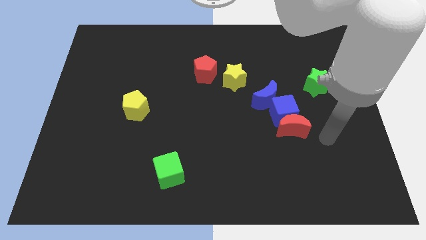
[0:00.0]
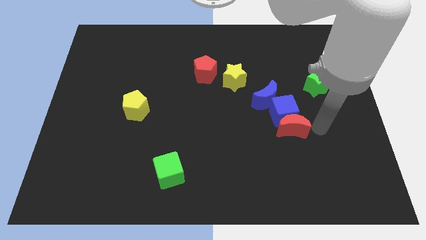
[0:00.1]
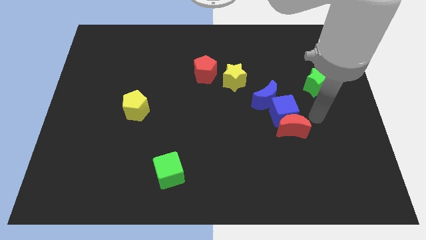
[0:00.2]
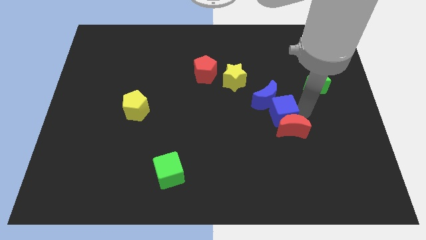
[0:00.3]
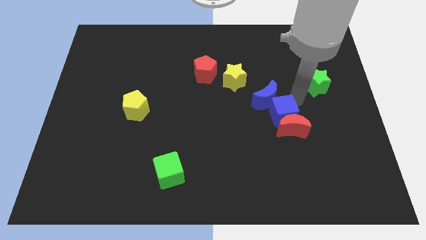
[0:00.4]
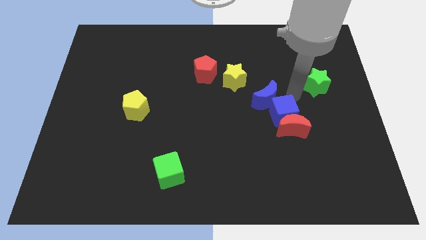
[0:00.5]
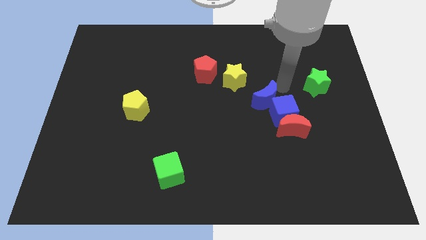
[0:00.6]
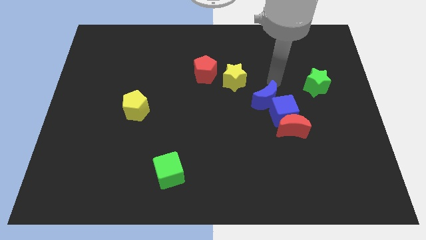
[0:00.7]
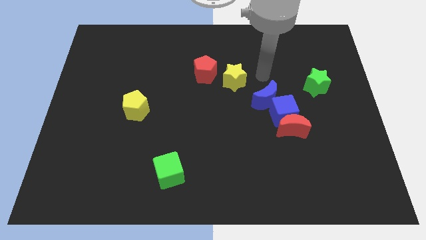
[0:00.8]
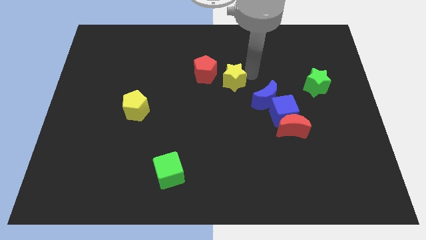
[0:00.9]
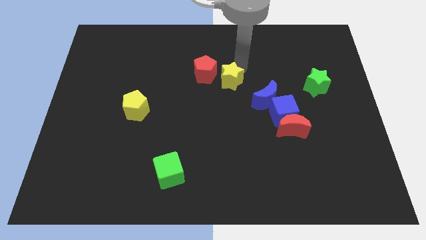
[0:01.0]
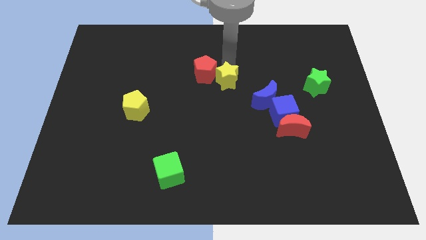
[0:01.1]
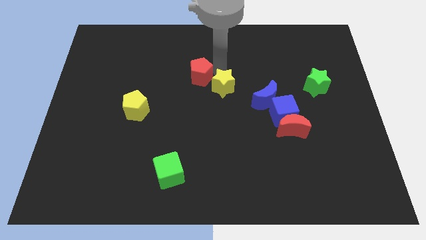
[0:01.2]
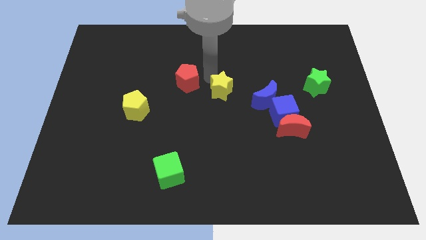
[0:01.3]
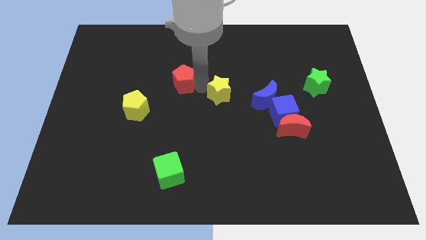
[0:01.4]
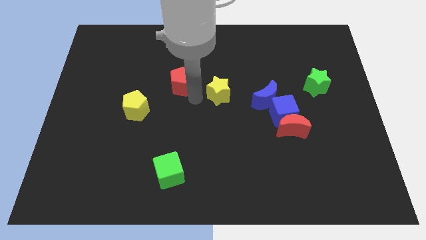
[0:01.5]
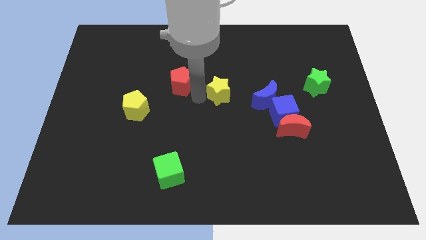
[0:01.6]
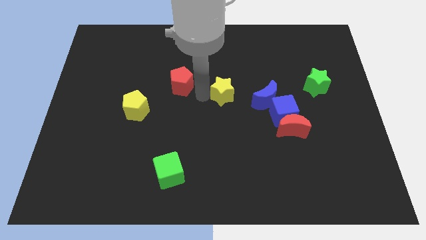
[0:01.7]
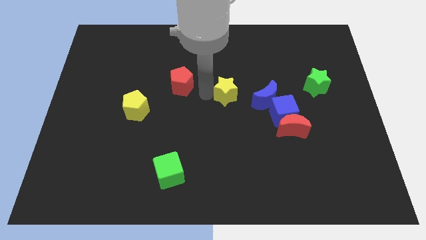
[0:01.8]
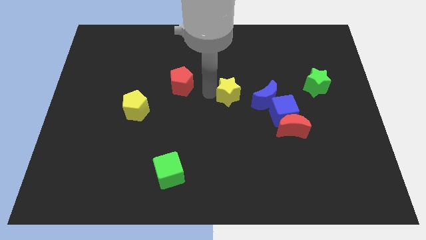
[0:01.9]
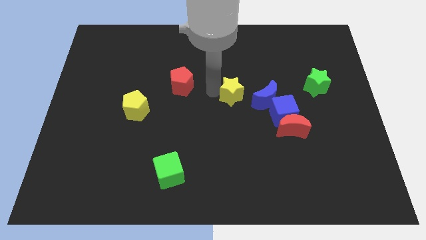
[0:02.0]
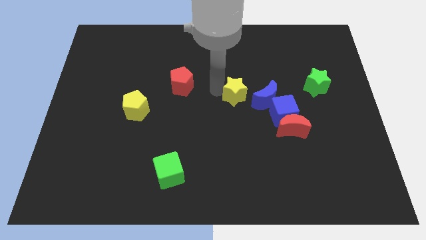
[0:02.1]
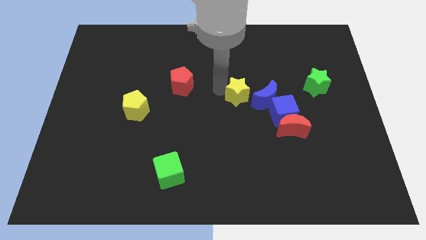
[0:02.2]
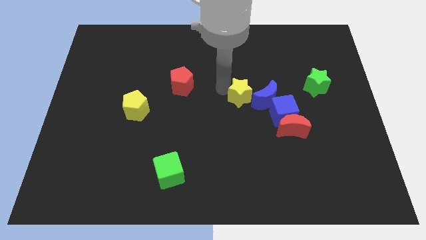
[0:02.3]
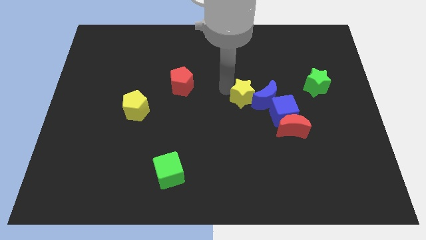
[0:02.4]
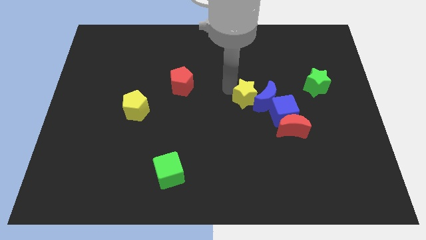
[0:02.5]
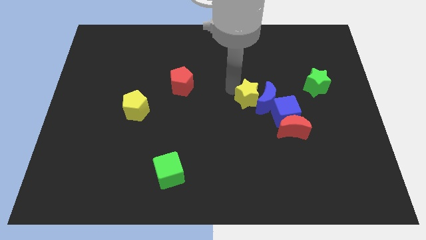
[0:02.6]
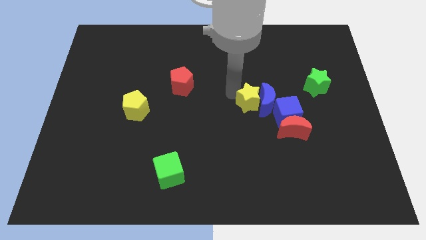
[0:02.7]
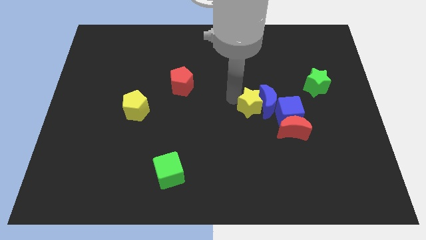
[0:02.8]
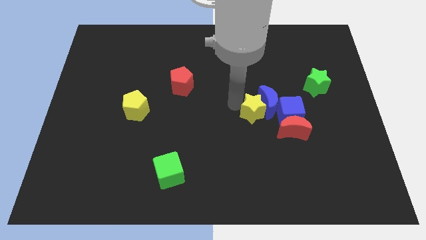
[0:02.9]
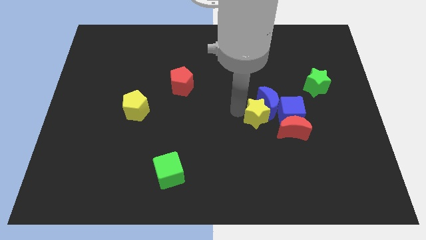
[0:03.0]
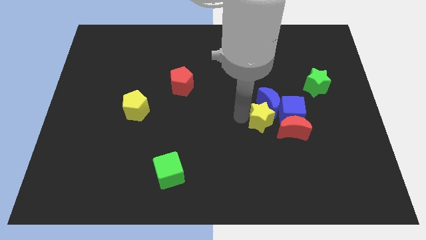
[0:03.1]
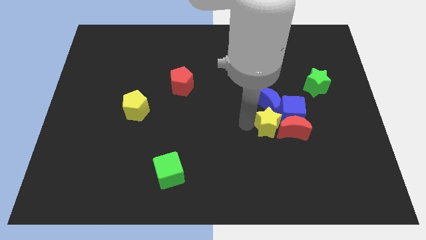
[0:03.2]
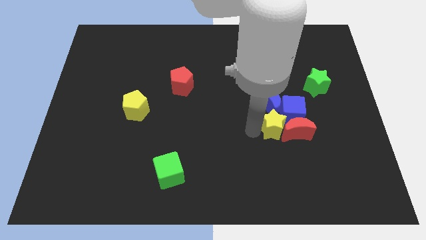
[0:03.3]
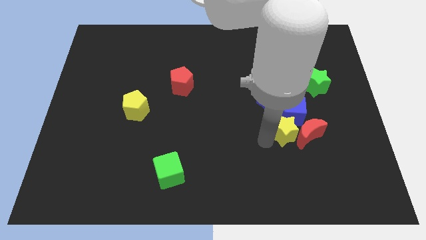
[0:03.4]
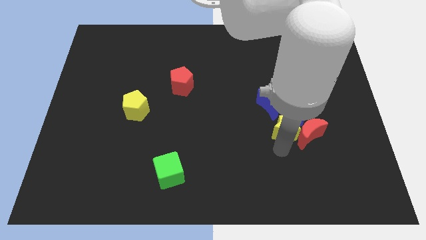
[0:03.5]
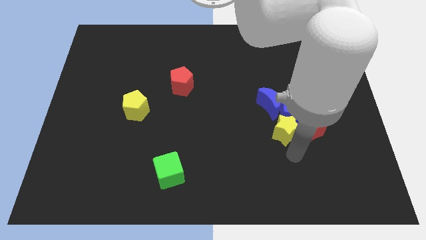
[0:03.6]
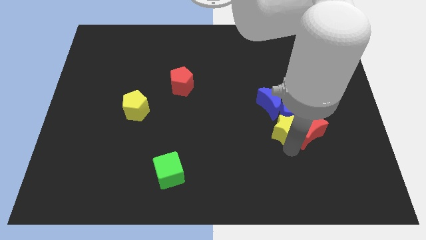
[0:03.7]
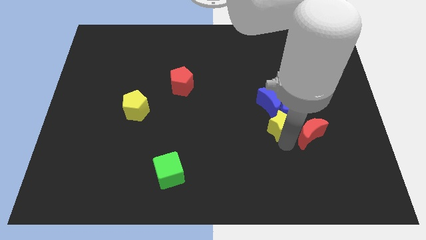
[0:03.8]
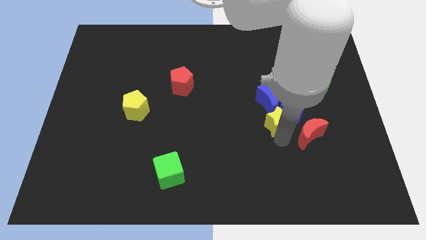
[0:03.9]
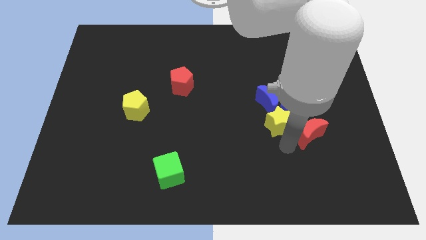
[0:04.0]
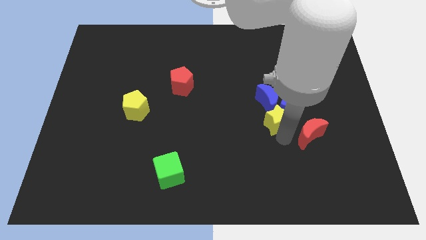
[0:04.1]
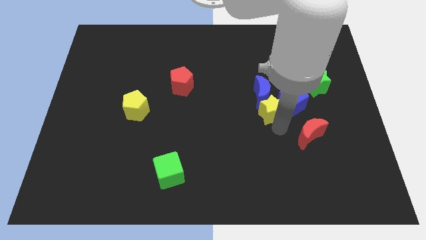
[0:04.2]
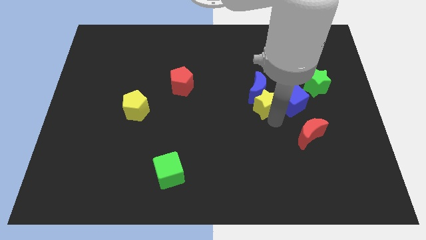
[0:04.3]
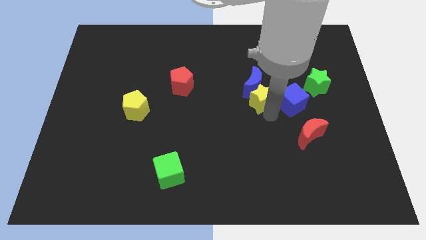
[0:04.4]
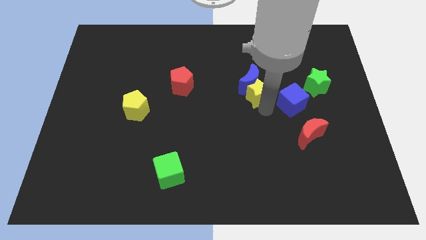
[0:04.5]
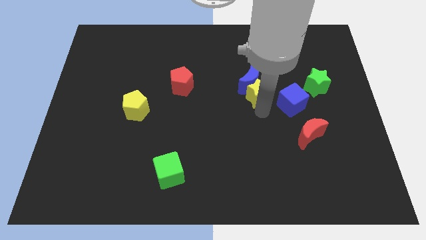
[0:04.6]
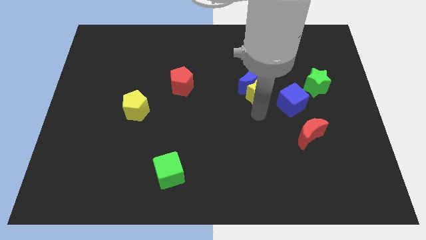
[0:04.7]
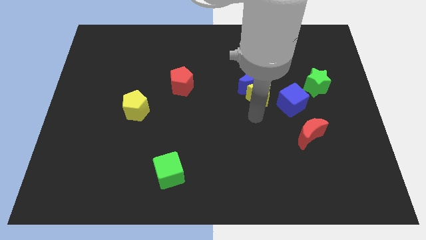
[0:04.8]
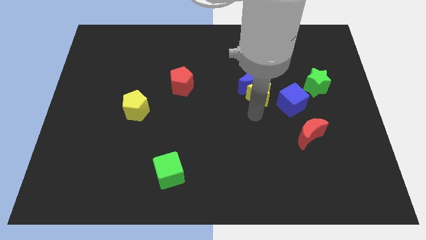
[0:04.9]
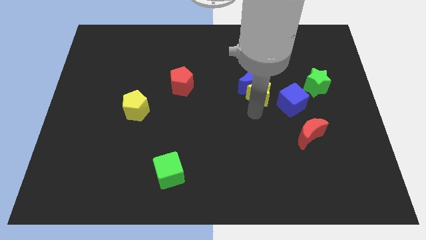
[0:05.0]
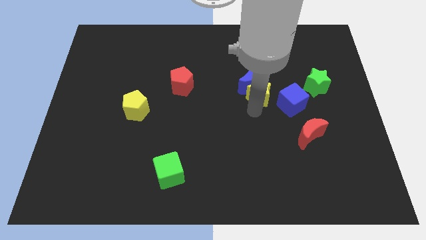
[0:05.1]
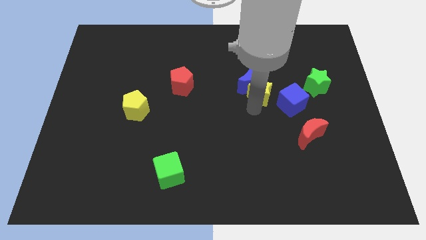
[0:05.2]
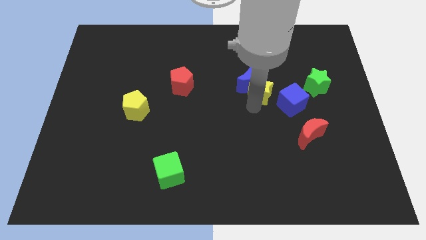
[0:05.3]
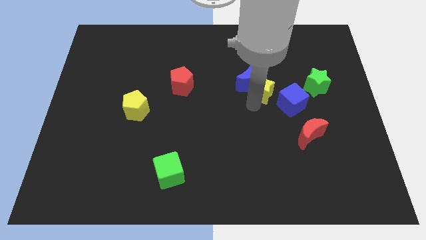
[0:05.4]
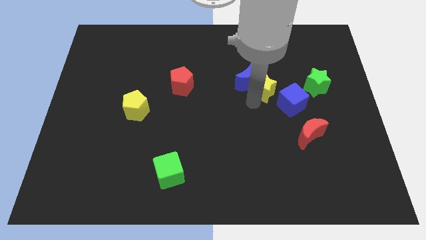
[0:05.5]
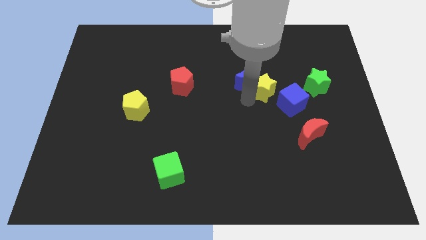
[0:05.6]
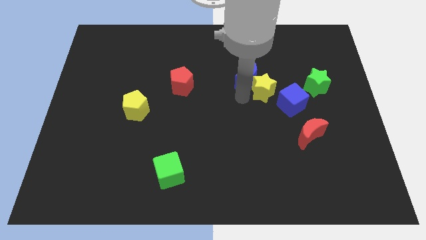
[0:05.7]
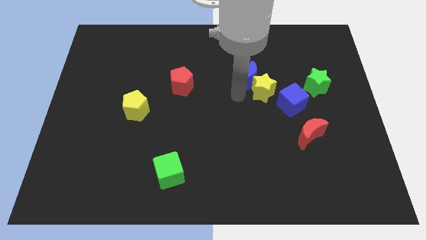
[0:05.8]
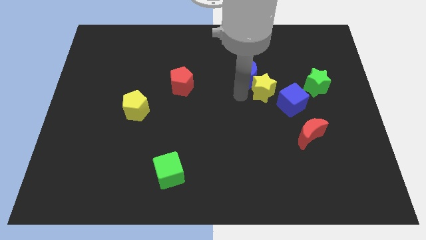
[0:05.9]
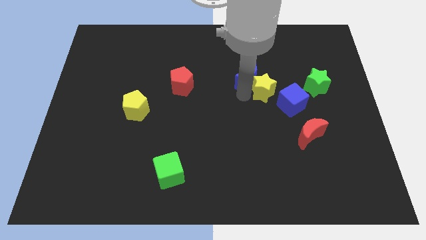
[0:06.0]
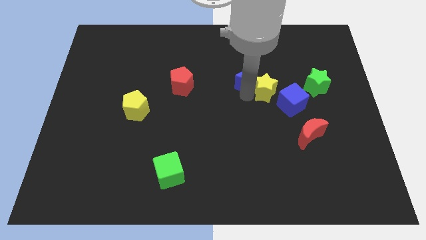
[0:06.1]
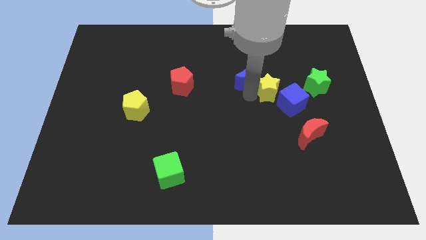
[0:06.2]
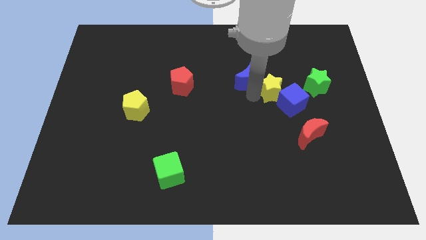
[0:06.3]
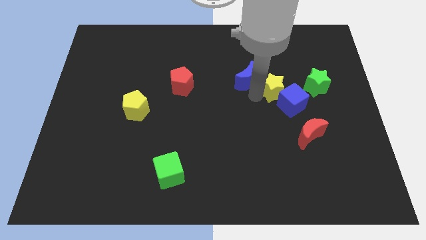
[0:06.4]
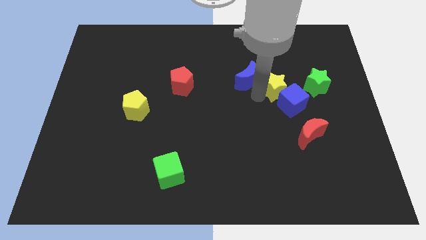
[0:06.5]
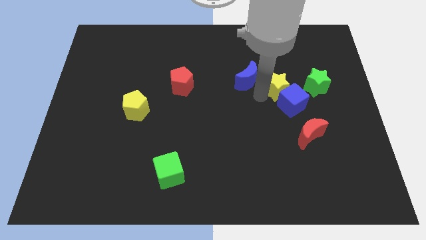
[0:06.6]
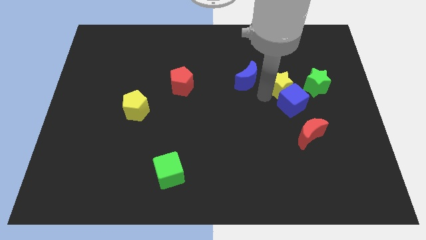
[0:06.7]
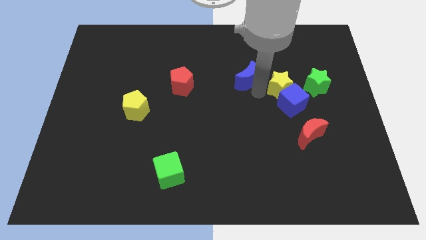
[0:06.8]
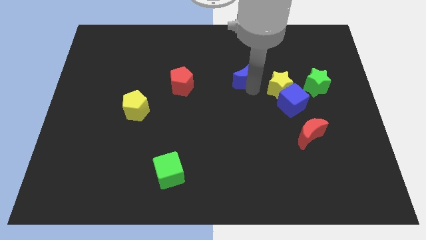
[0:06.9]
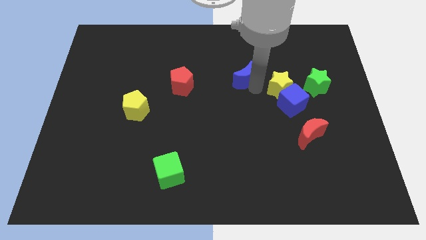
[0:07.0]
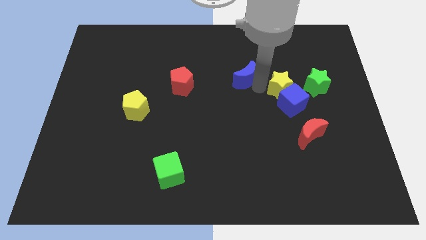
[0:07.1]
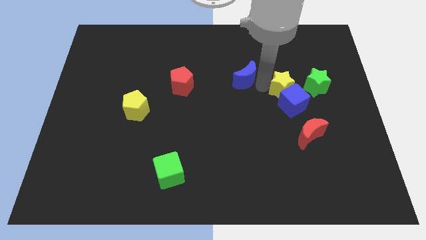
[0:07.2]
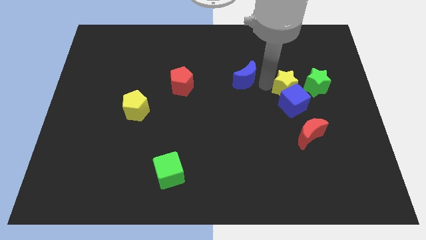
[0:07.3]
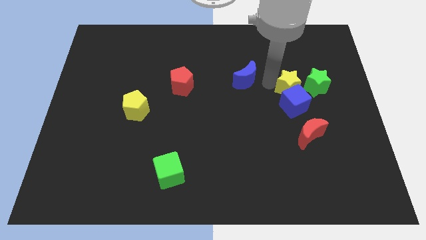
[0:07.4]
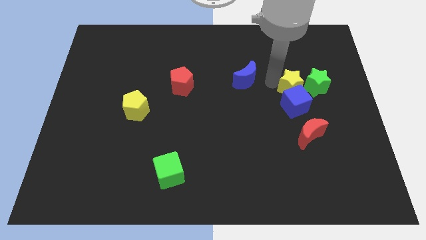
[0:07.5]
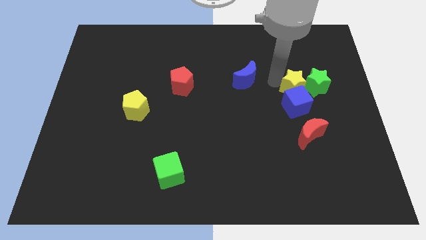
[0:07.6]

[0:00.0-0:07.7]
move the yellow star close to the green star

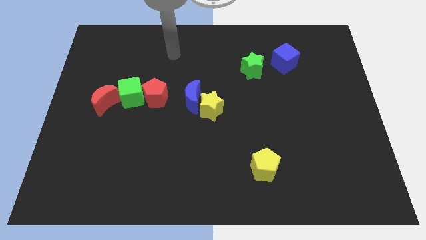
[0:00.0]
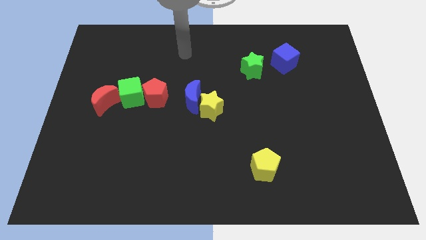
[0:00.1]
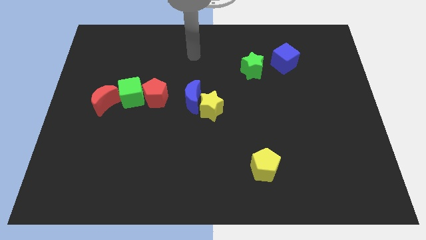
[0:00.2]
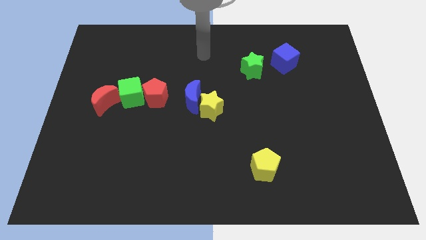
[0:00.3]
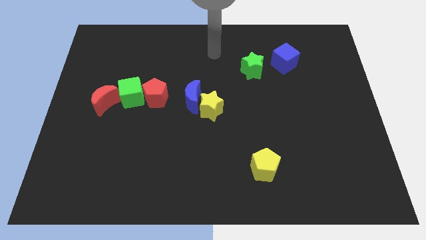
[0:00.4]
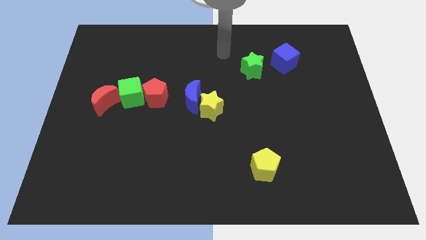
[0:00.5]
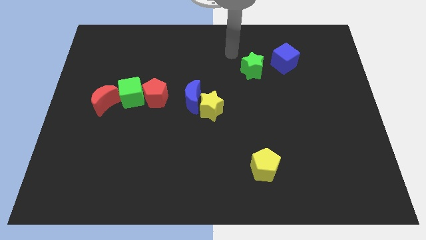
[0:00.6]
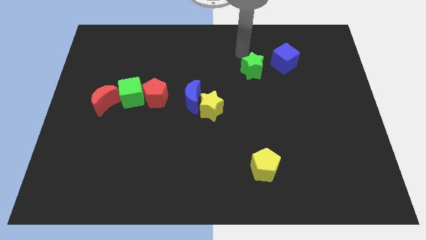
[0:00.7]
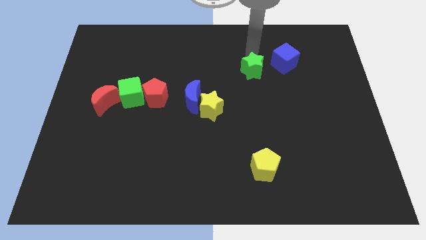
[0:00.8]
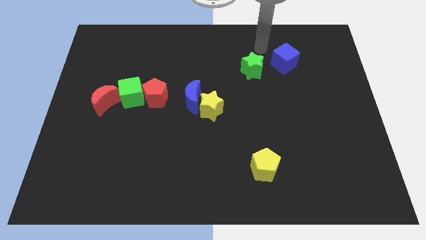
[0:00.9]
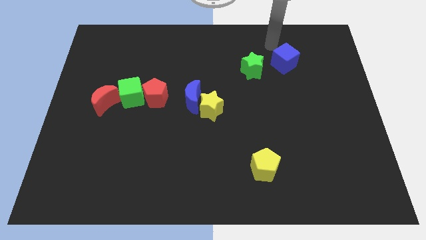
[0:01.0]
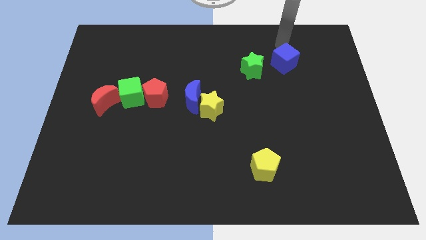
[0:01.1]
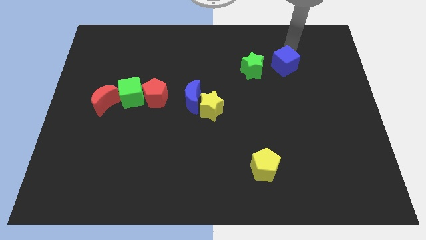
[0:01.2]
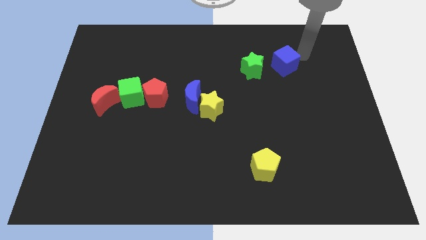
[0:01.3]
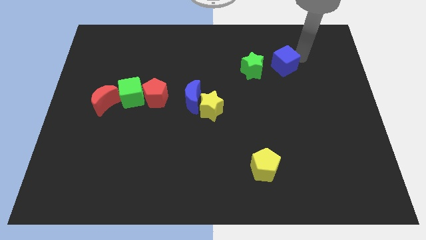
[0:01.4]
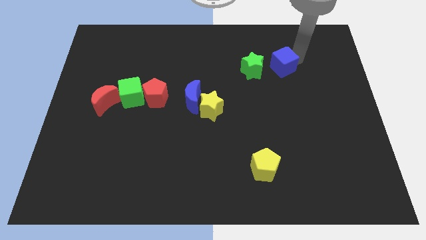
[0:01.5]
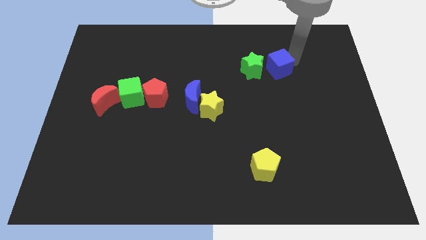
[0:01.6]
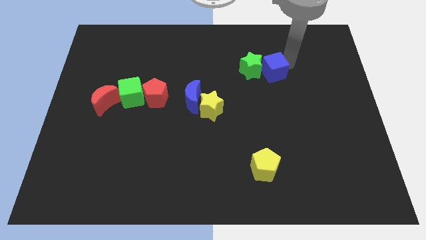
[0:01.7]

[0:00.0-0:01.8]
put the blue cube to the green star
